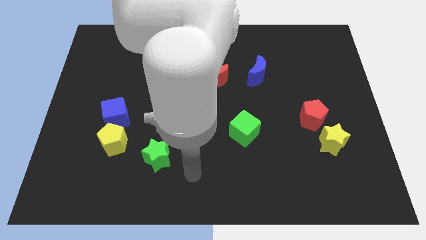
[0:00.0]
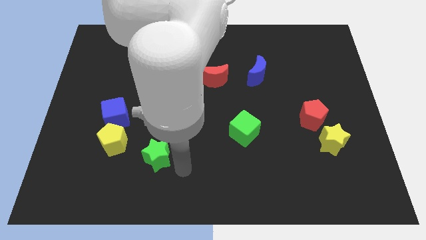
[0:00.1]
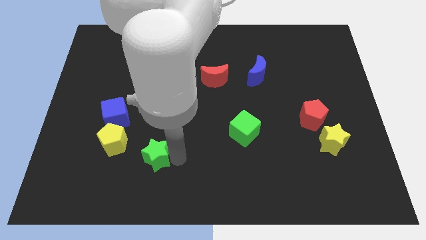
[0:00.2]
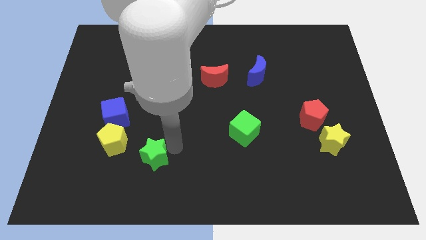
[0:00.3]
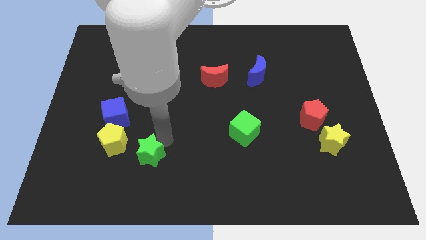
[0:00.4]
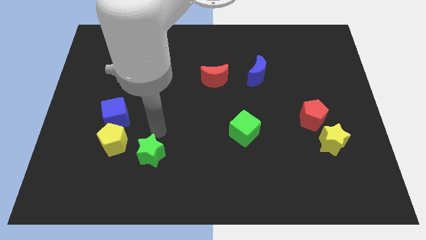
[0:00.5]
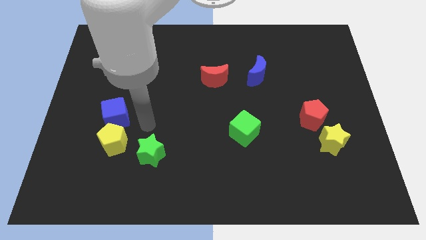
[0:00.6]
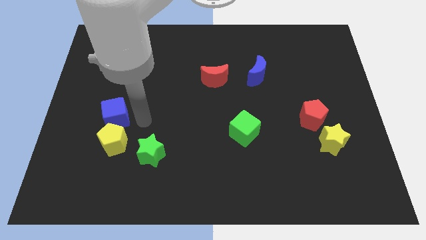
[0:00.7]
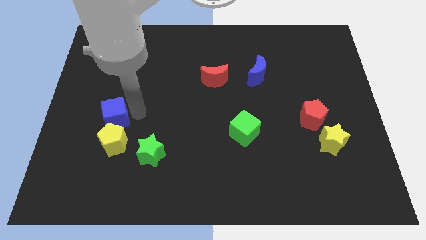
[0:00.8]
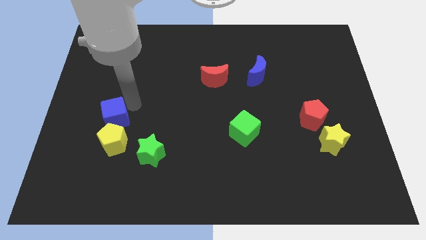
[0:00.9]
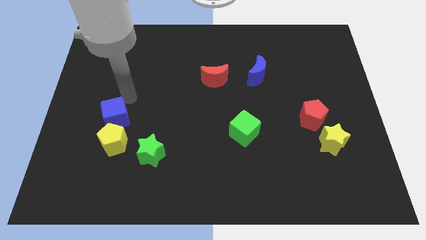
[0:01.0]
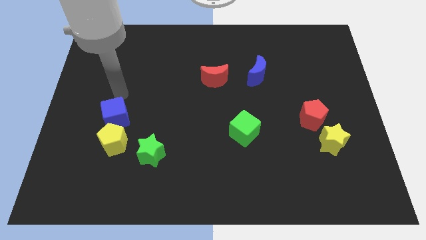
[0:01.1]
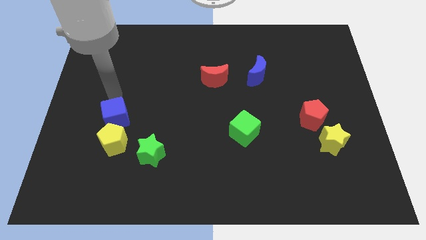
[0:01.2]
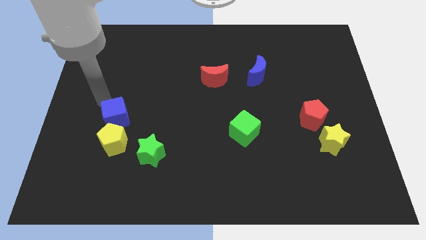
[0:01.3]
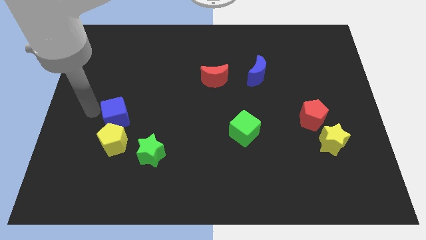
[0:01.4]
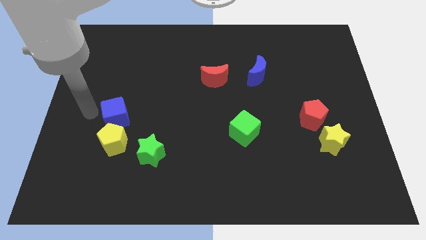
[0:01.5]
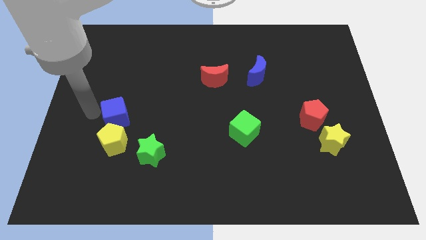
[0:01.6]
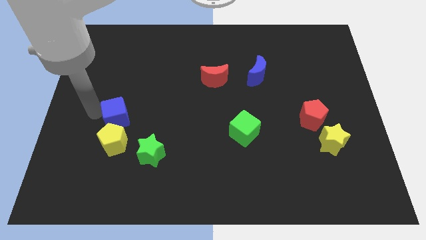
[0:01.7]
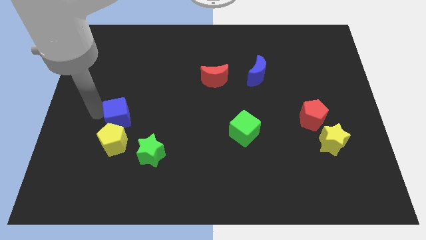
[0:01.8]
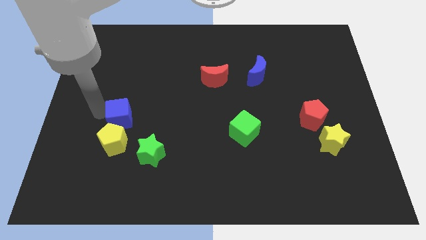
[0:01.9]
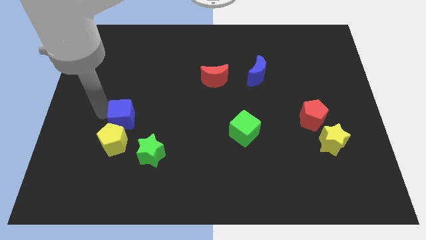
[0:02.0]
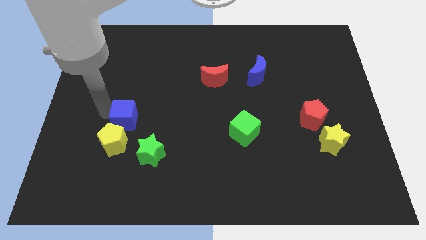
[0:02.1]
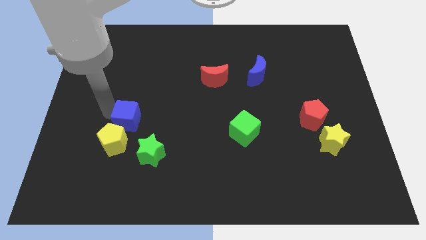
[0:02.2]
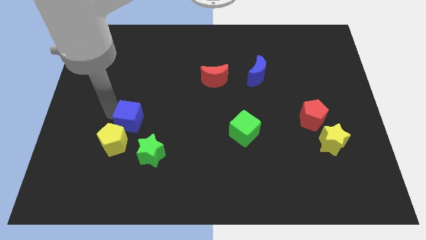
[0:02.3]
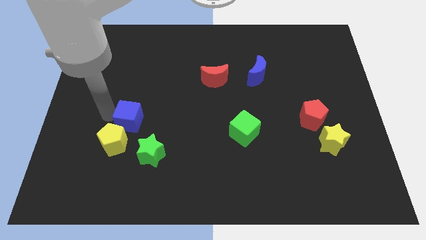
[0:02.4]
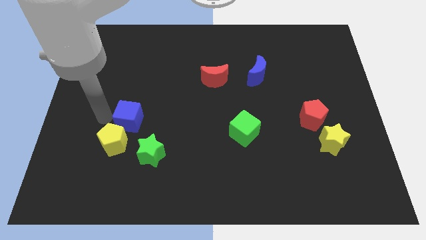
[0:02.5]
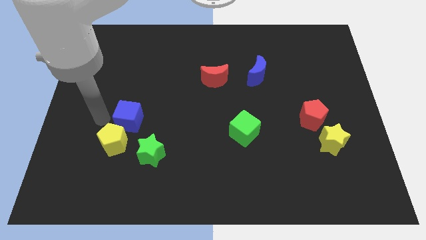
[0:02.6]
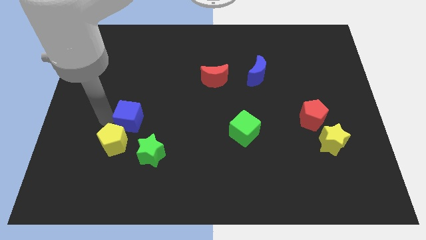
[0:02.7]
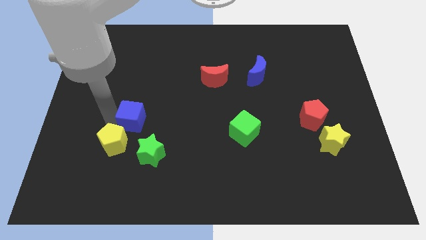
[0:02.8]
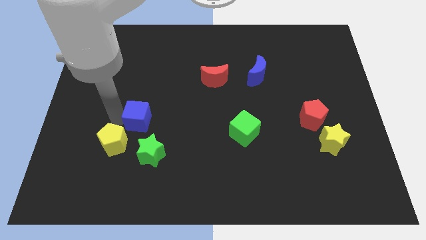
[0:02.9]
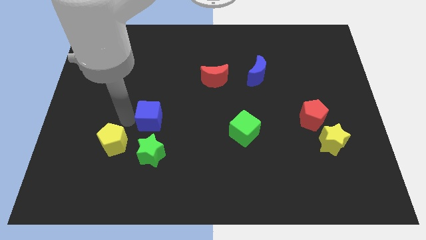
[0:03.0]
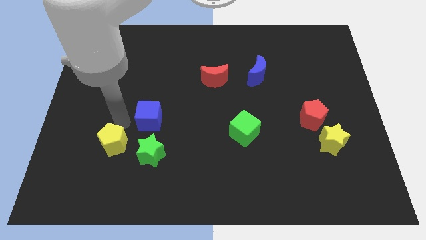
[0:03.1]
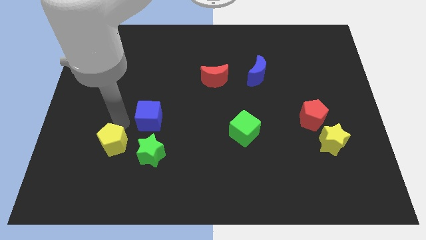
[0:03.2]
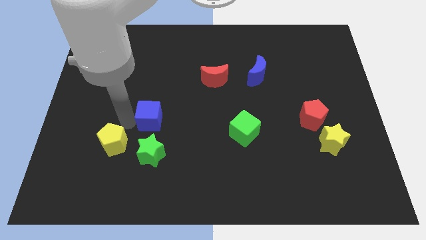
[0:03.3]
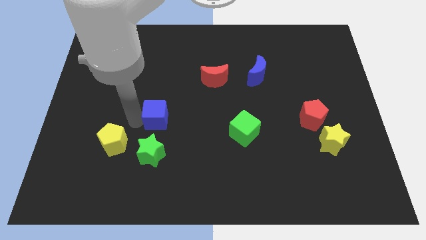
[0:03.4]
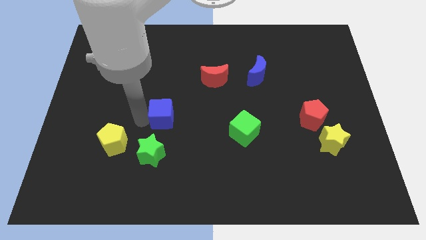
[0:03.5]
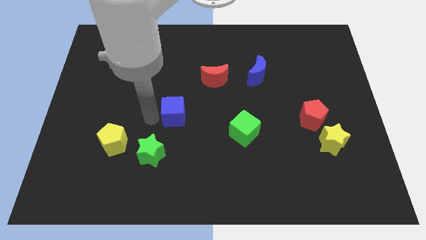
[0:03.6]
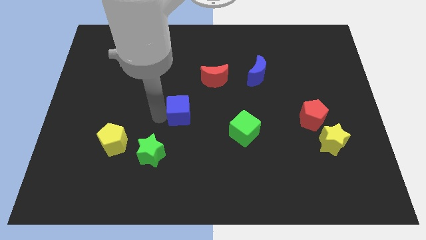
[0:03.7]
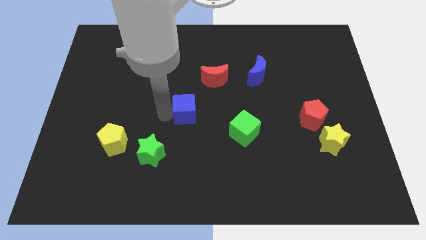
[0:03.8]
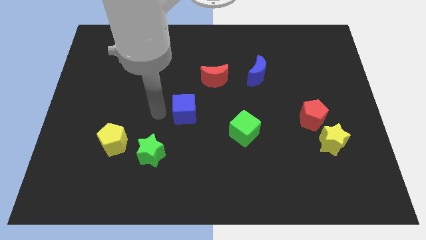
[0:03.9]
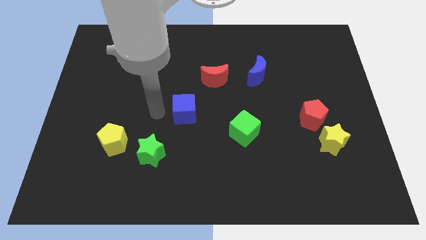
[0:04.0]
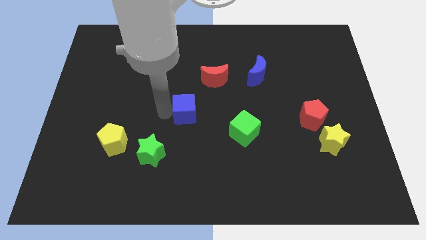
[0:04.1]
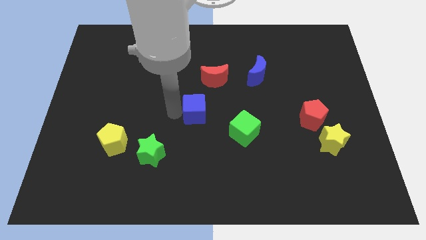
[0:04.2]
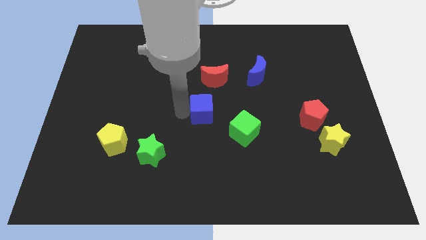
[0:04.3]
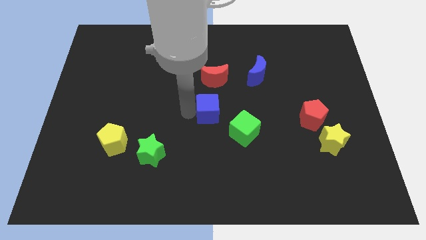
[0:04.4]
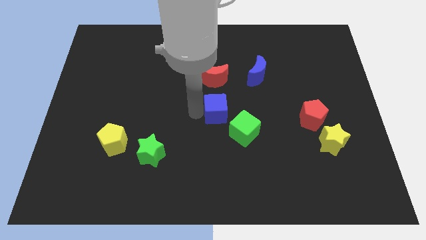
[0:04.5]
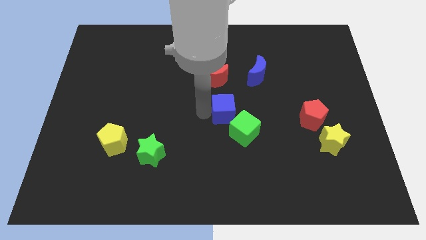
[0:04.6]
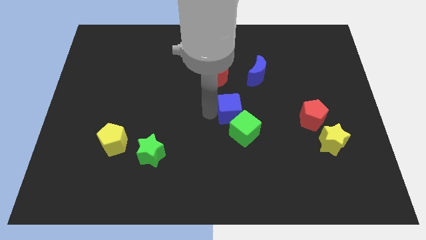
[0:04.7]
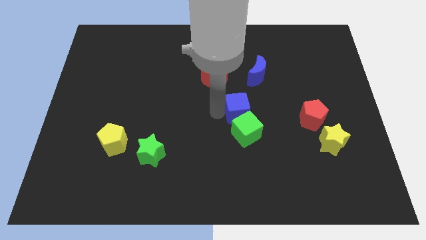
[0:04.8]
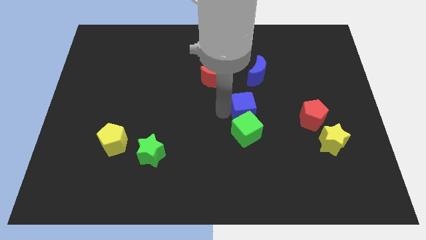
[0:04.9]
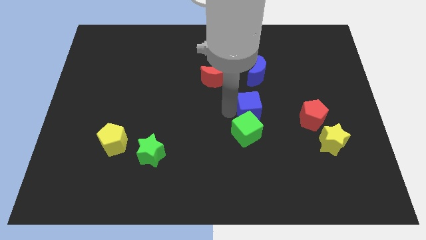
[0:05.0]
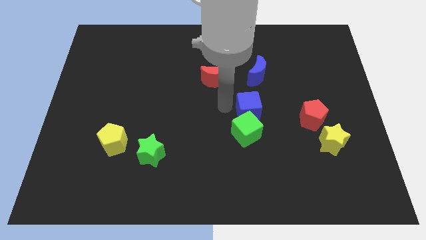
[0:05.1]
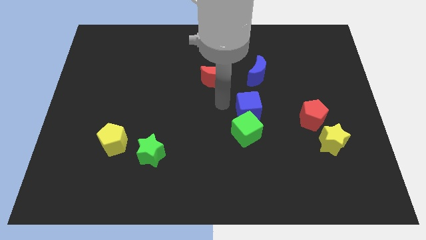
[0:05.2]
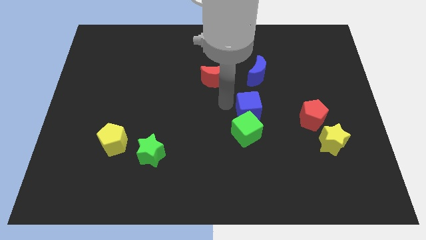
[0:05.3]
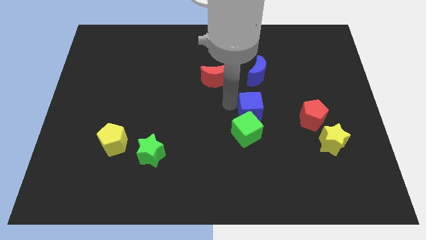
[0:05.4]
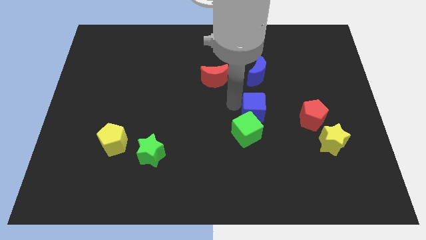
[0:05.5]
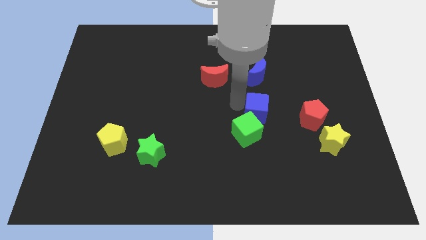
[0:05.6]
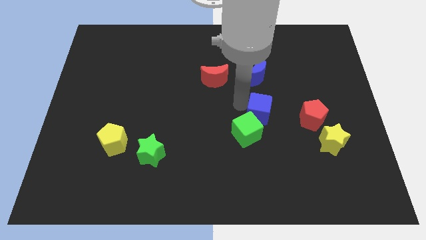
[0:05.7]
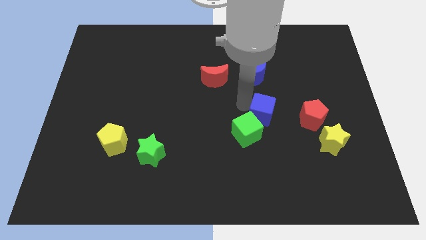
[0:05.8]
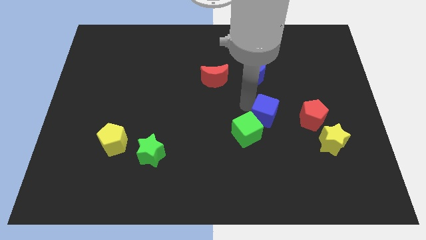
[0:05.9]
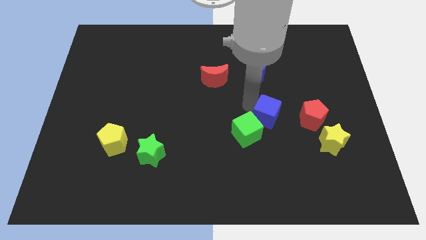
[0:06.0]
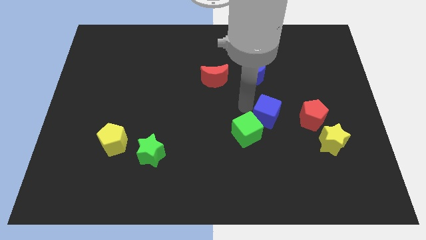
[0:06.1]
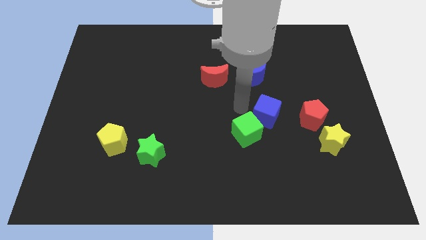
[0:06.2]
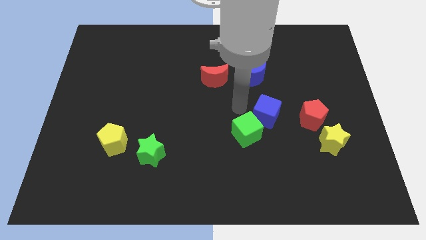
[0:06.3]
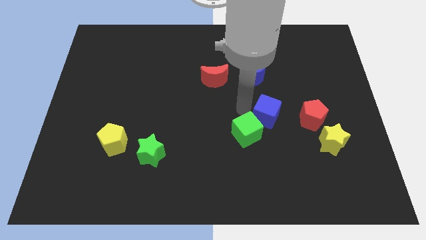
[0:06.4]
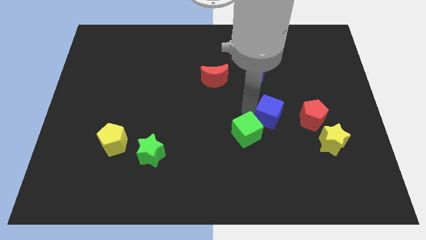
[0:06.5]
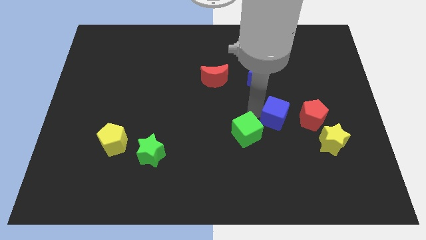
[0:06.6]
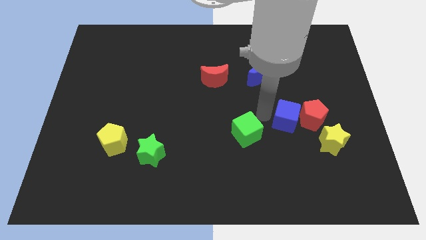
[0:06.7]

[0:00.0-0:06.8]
move the blue cube towards the red pentagon
